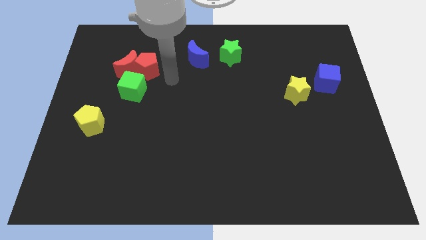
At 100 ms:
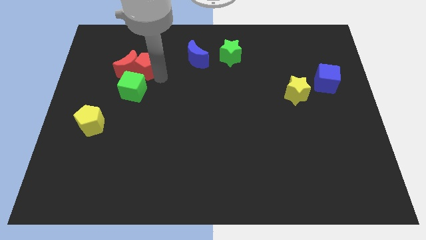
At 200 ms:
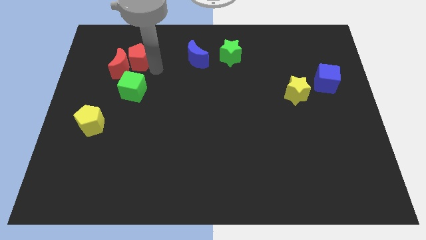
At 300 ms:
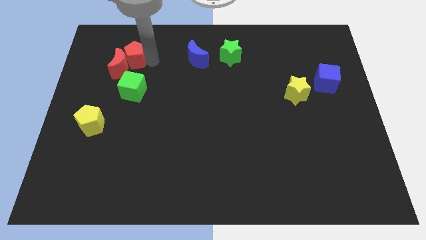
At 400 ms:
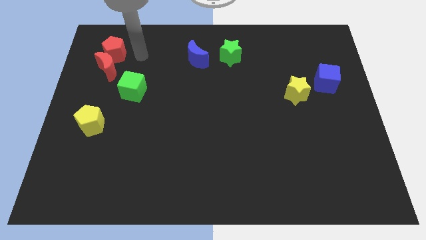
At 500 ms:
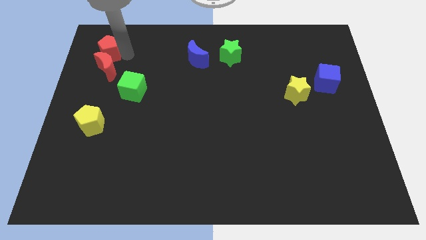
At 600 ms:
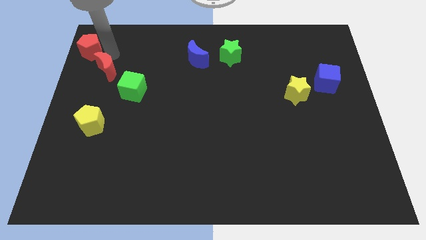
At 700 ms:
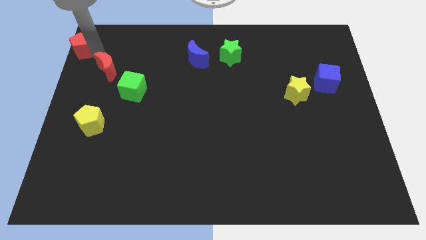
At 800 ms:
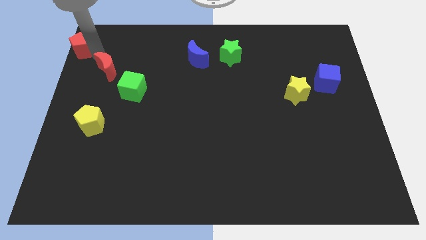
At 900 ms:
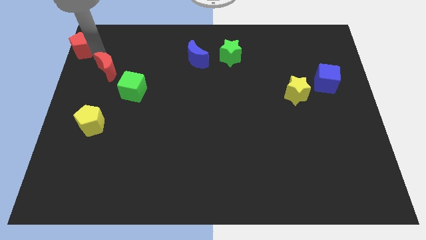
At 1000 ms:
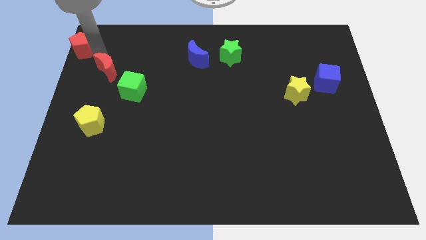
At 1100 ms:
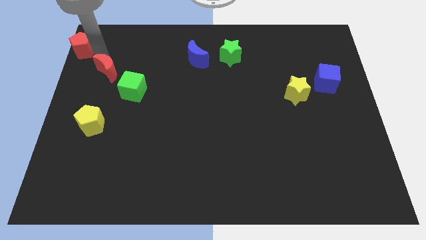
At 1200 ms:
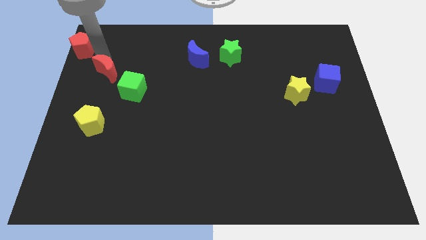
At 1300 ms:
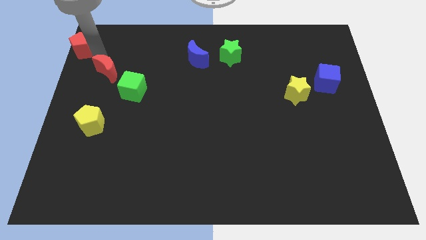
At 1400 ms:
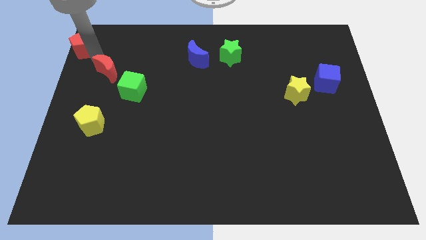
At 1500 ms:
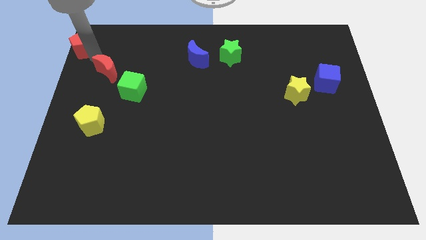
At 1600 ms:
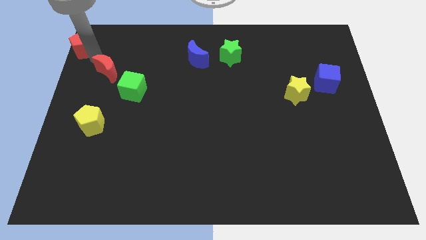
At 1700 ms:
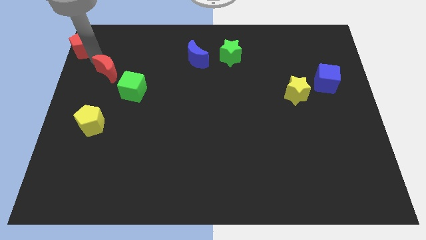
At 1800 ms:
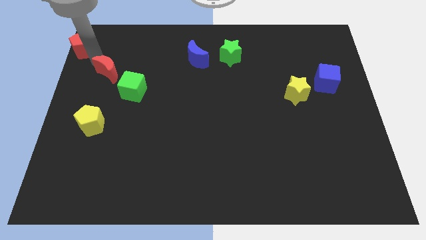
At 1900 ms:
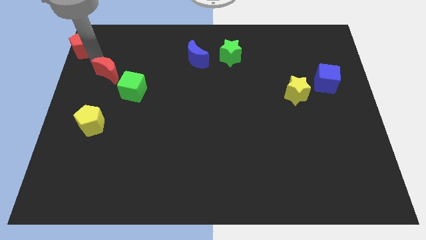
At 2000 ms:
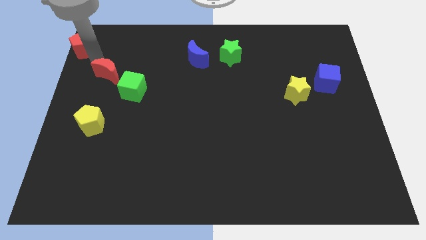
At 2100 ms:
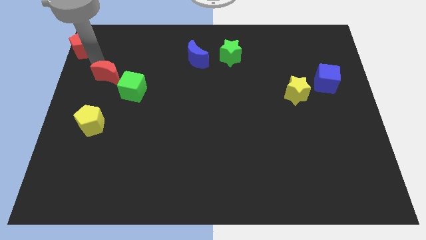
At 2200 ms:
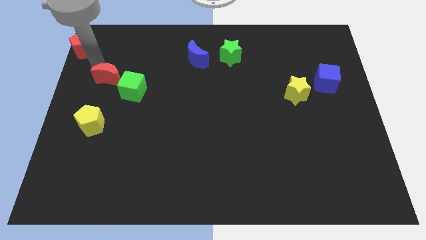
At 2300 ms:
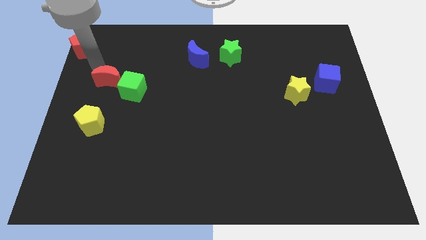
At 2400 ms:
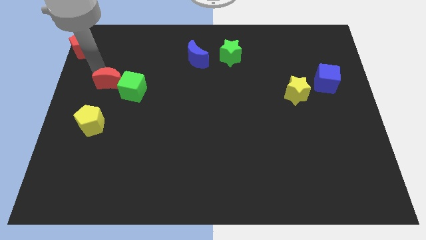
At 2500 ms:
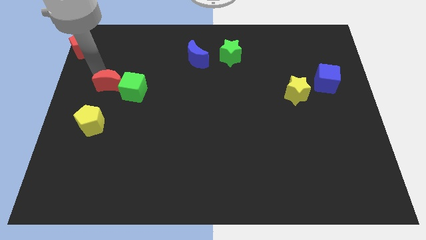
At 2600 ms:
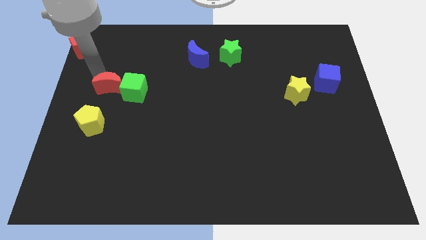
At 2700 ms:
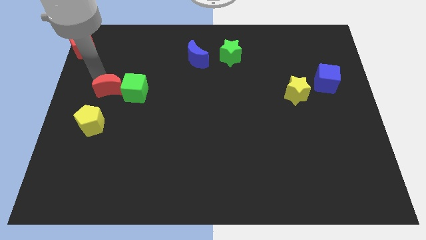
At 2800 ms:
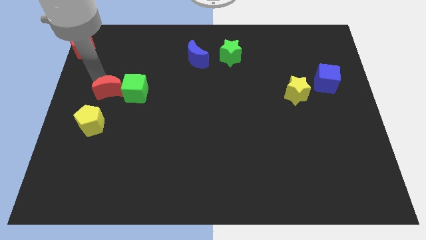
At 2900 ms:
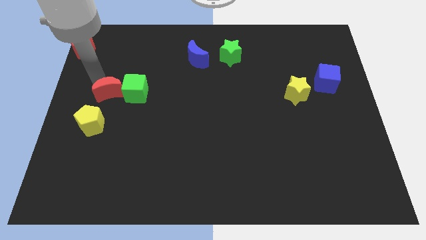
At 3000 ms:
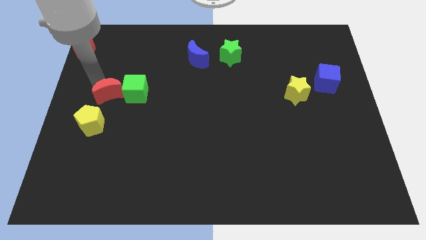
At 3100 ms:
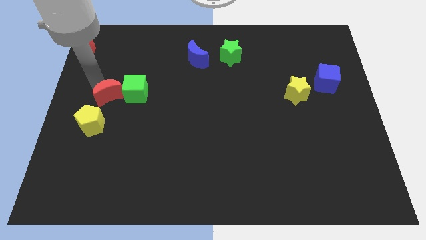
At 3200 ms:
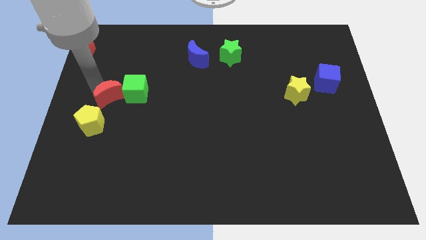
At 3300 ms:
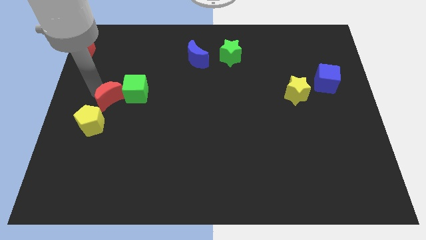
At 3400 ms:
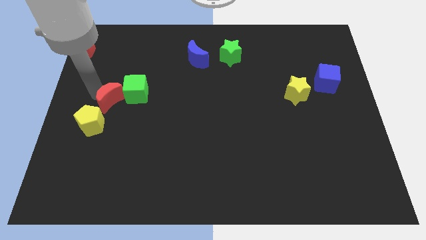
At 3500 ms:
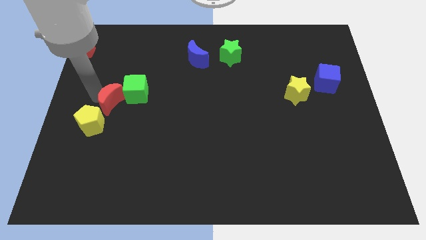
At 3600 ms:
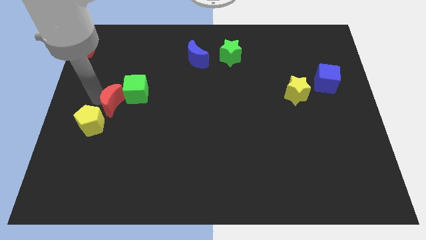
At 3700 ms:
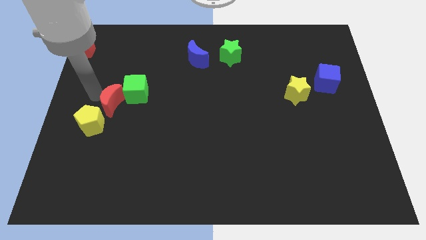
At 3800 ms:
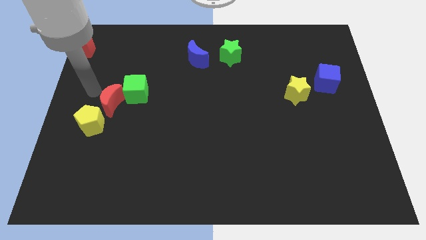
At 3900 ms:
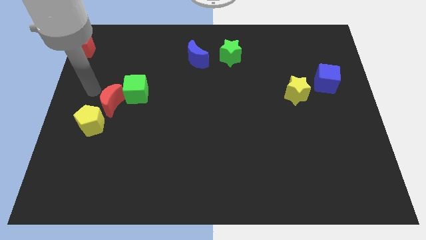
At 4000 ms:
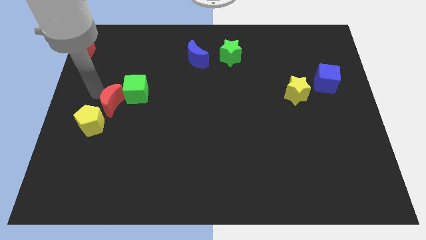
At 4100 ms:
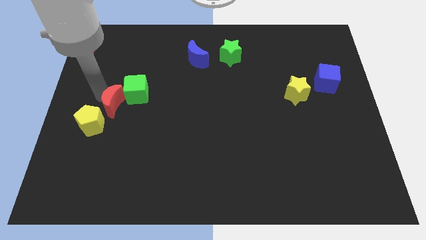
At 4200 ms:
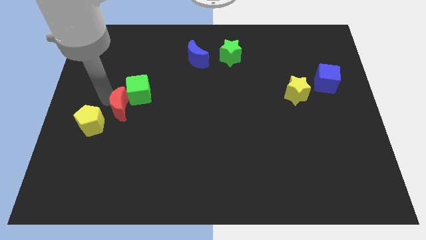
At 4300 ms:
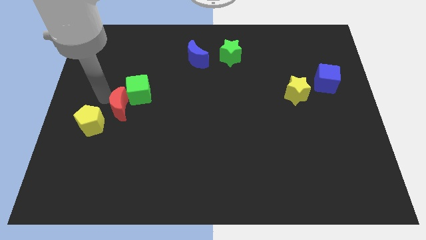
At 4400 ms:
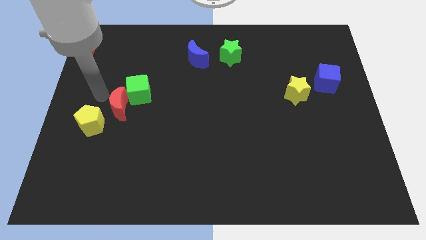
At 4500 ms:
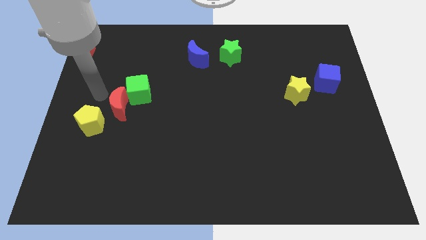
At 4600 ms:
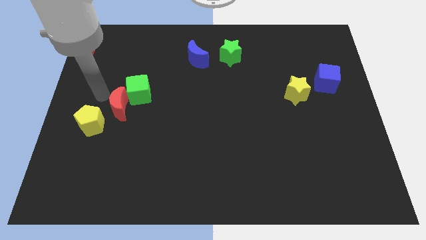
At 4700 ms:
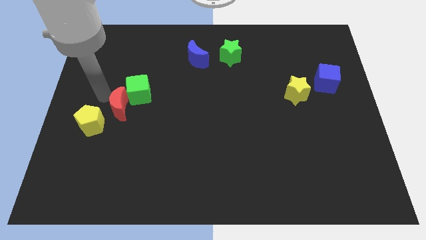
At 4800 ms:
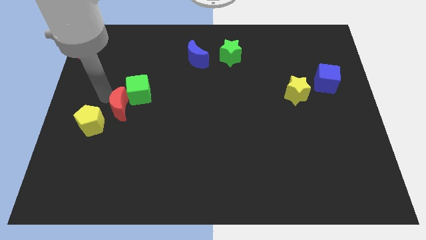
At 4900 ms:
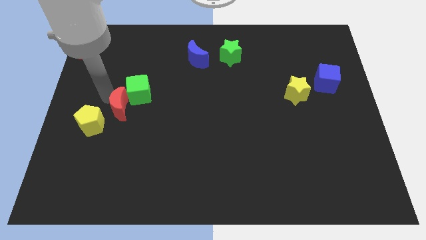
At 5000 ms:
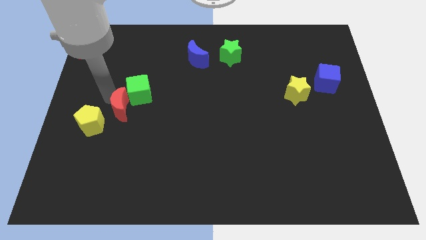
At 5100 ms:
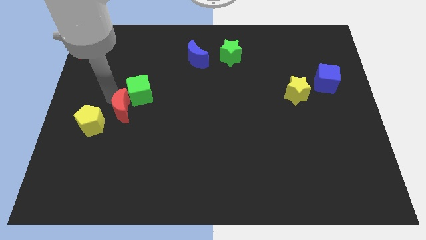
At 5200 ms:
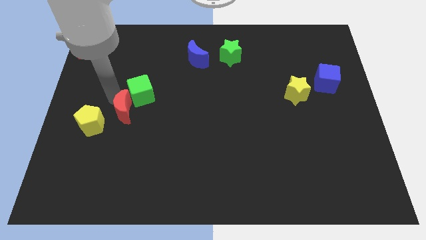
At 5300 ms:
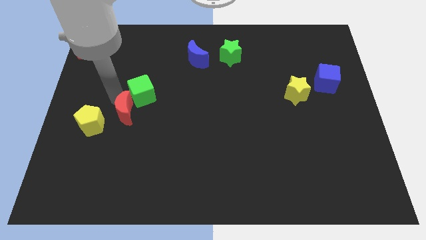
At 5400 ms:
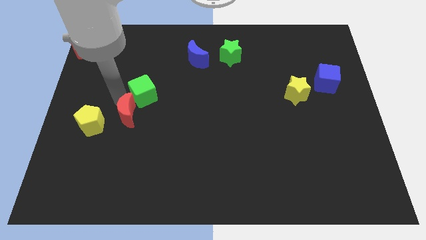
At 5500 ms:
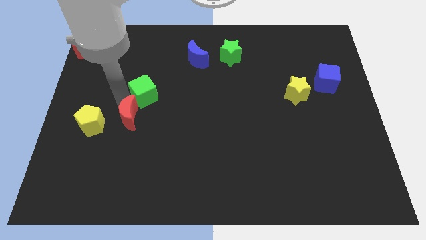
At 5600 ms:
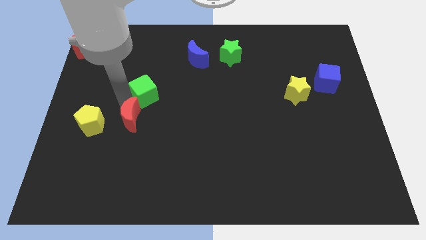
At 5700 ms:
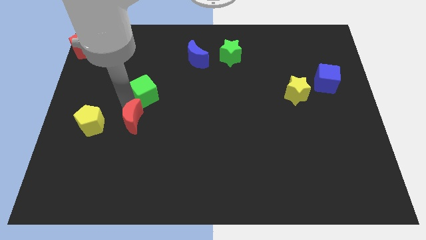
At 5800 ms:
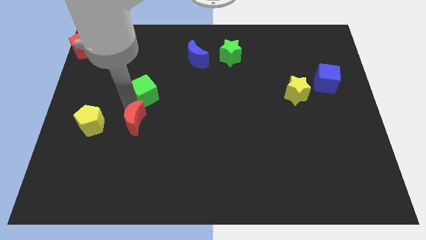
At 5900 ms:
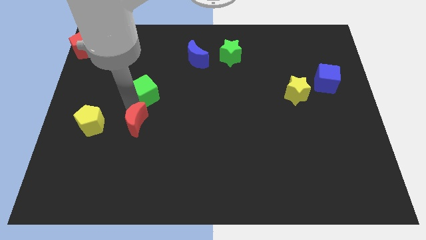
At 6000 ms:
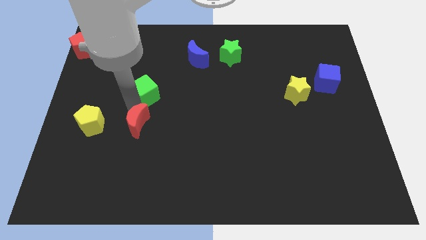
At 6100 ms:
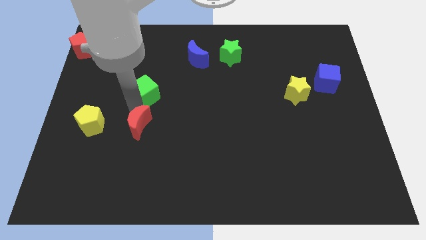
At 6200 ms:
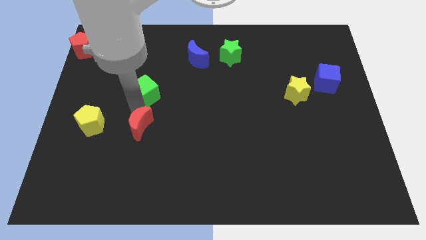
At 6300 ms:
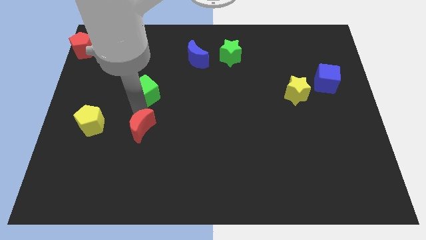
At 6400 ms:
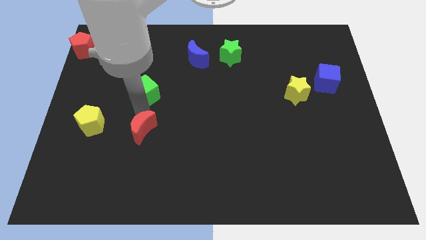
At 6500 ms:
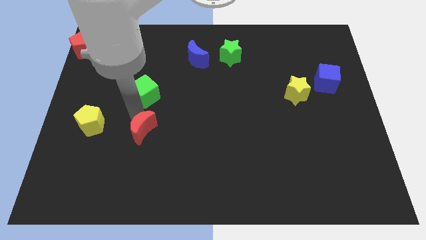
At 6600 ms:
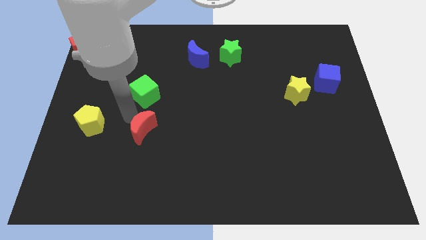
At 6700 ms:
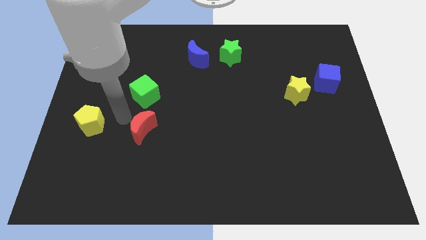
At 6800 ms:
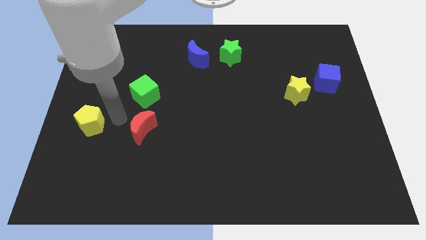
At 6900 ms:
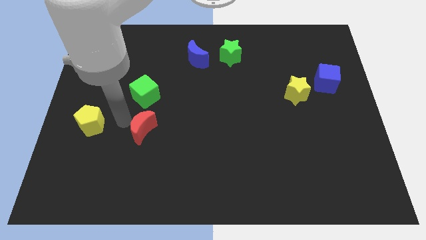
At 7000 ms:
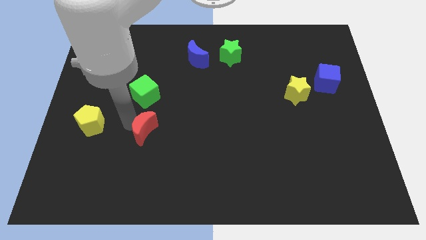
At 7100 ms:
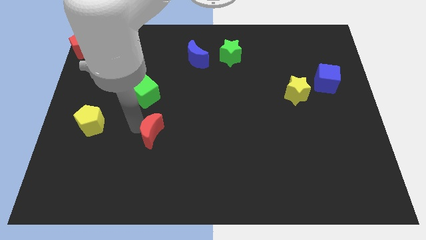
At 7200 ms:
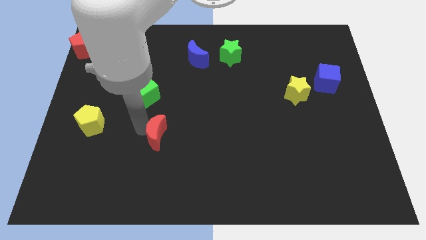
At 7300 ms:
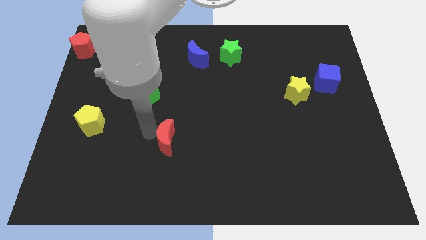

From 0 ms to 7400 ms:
move the red moon diagonally downwards and right

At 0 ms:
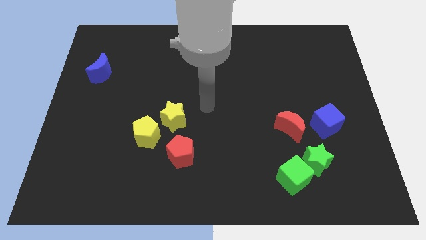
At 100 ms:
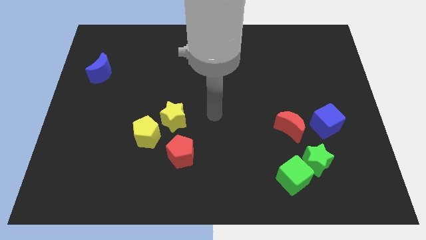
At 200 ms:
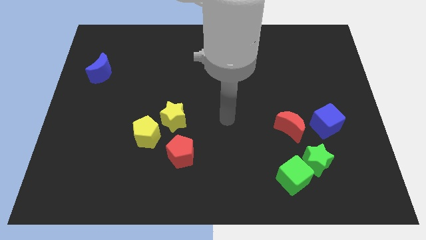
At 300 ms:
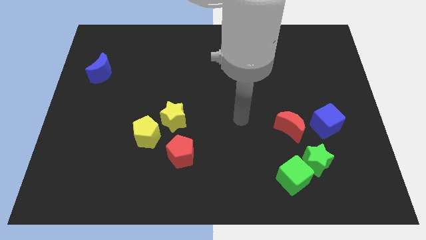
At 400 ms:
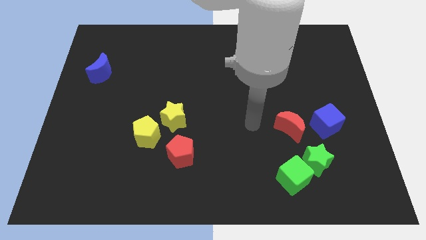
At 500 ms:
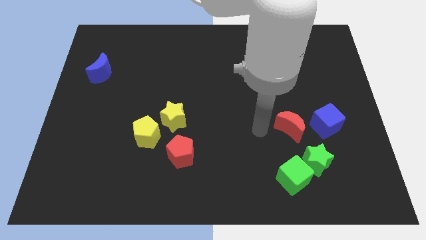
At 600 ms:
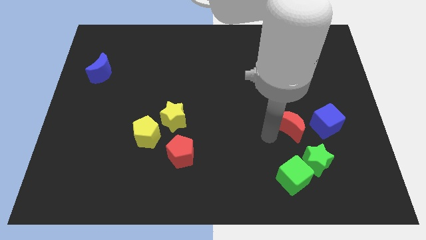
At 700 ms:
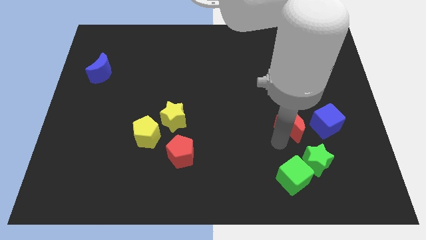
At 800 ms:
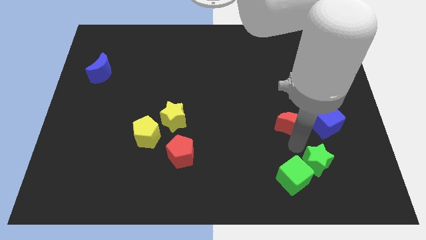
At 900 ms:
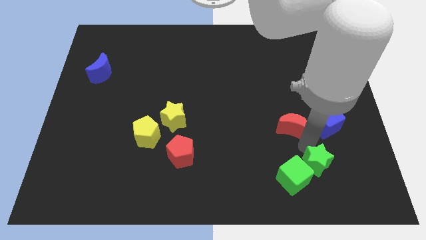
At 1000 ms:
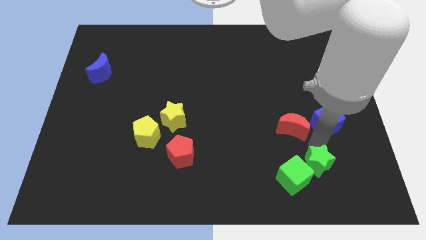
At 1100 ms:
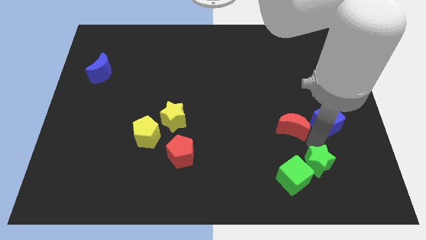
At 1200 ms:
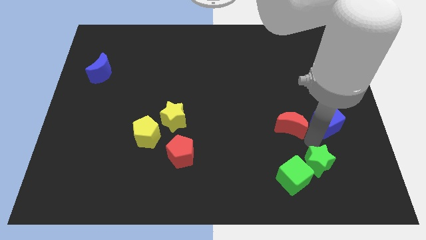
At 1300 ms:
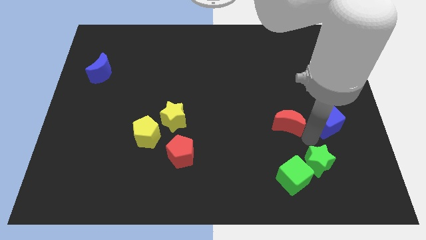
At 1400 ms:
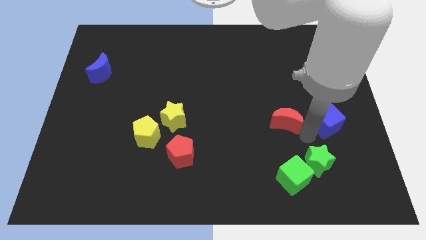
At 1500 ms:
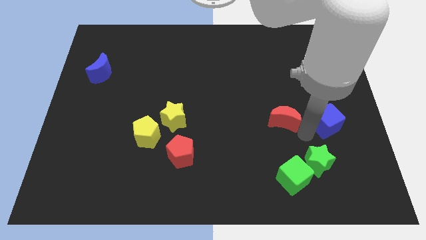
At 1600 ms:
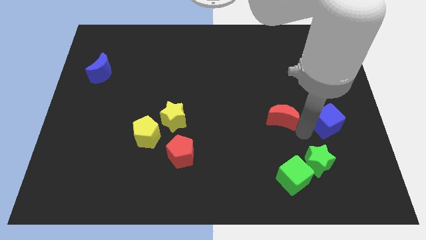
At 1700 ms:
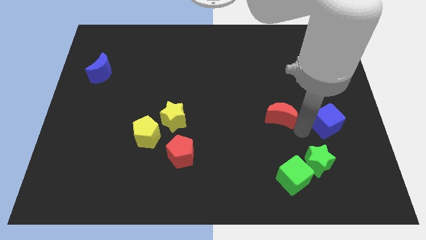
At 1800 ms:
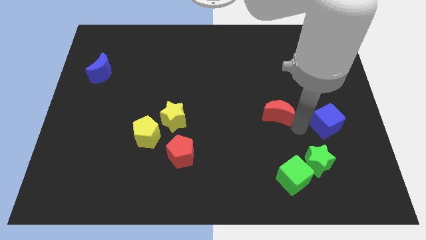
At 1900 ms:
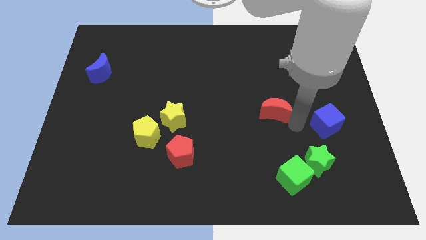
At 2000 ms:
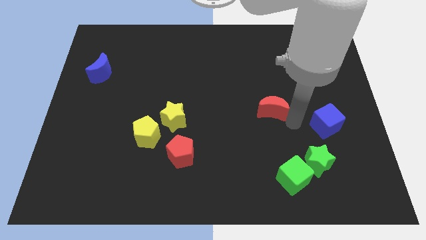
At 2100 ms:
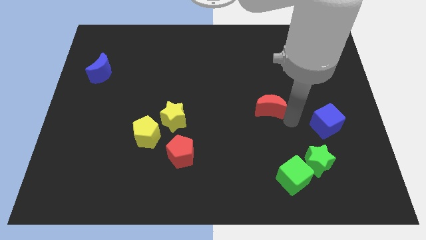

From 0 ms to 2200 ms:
push the red moon up and left a bit
